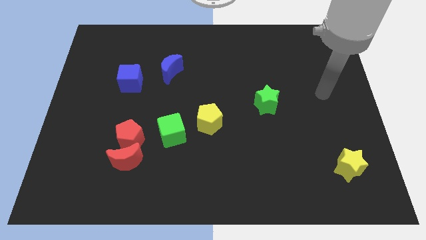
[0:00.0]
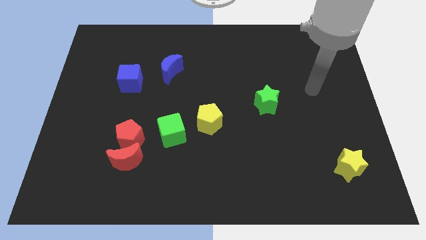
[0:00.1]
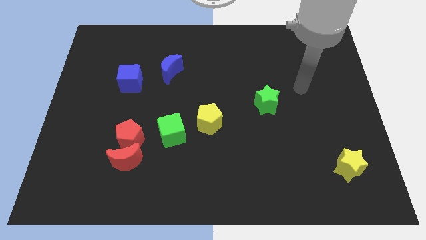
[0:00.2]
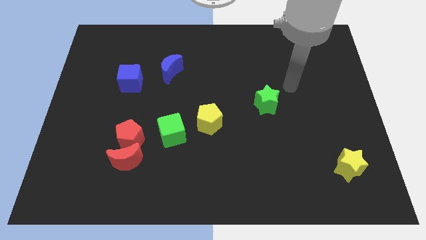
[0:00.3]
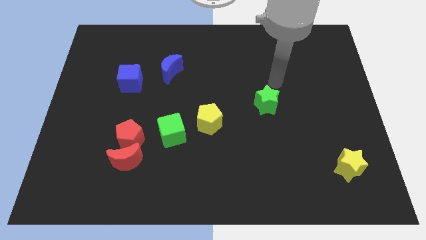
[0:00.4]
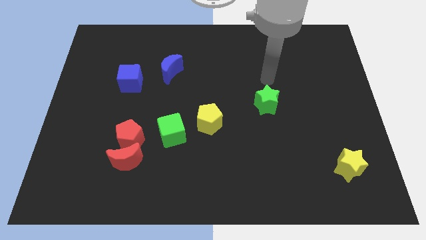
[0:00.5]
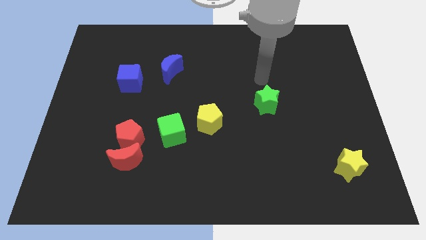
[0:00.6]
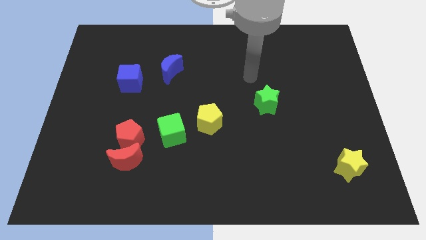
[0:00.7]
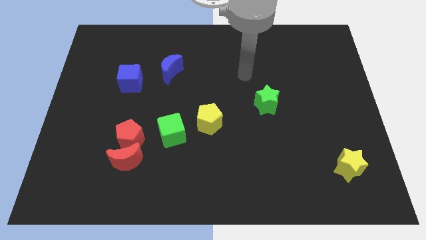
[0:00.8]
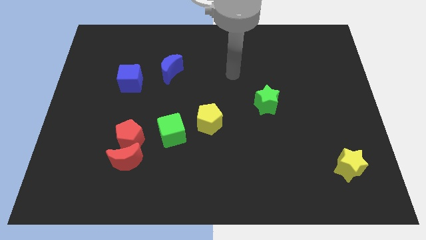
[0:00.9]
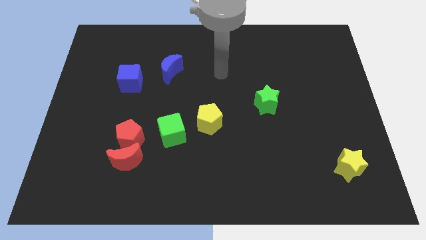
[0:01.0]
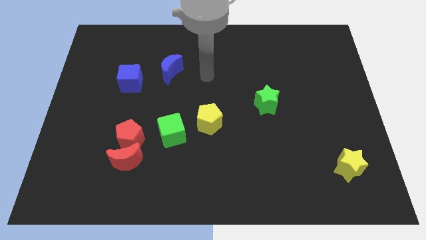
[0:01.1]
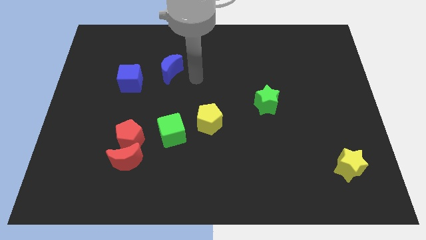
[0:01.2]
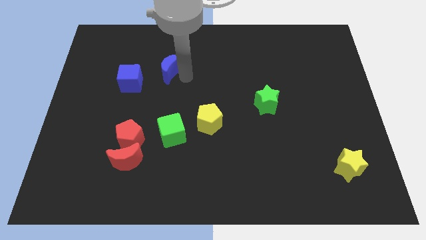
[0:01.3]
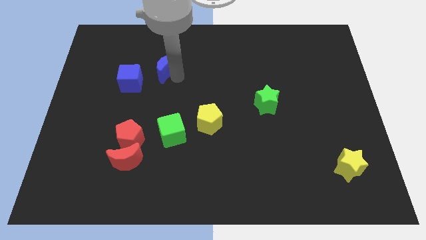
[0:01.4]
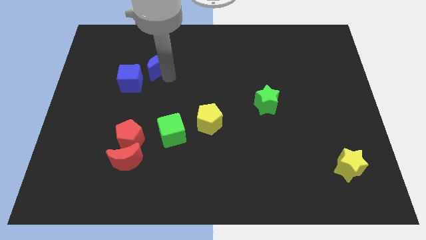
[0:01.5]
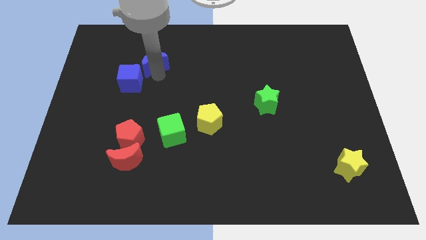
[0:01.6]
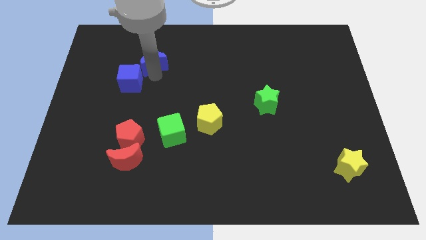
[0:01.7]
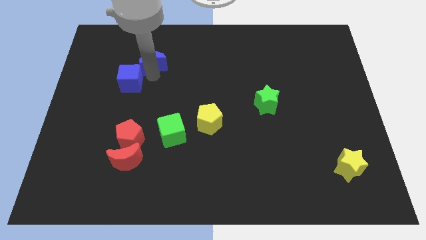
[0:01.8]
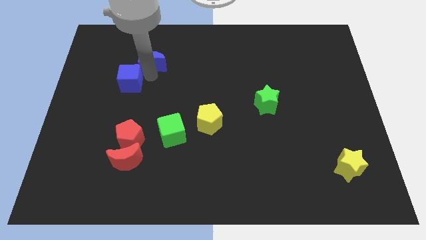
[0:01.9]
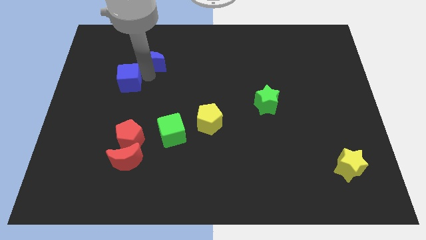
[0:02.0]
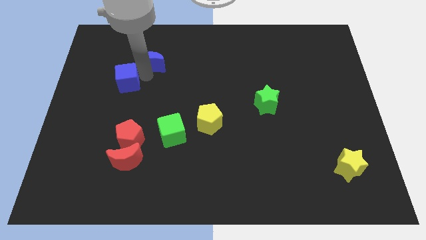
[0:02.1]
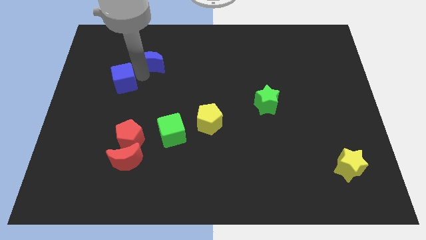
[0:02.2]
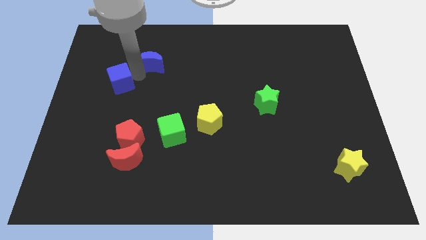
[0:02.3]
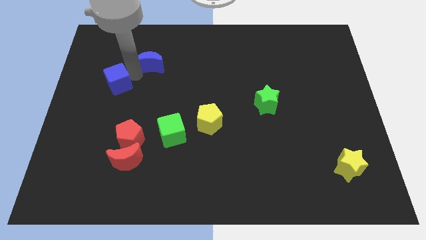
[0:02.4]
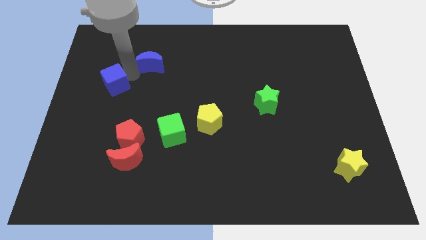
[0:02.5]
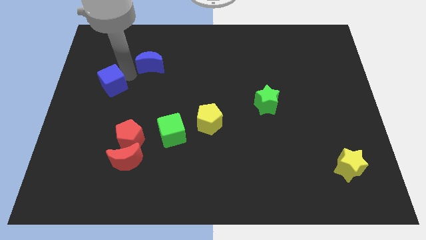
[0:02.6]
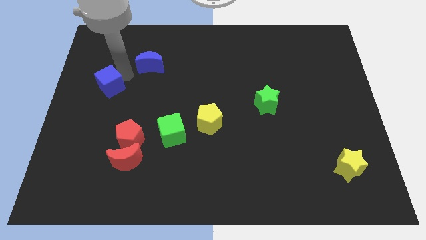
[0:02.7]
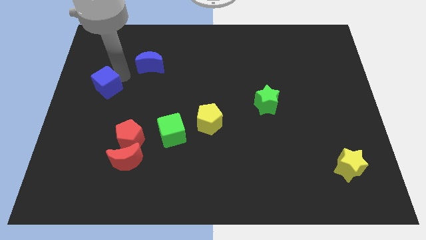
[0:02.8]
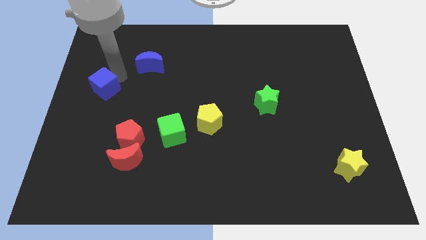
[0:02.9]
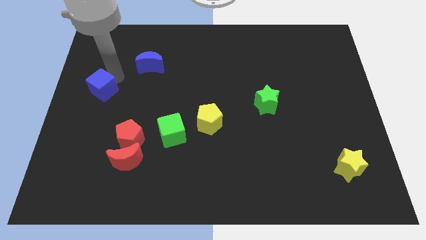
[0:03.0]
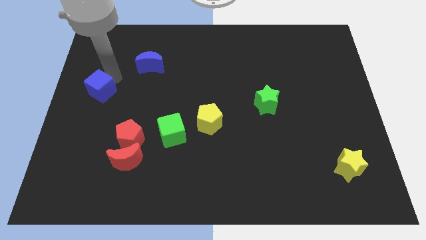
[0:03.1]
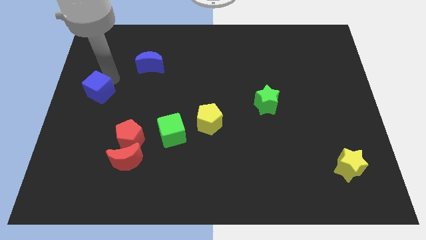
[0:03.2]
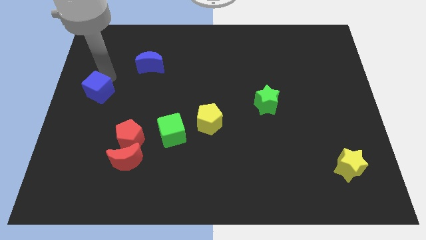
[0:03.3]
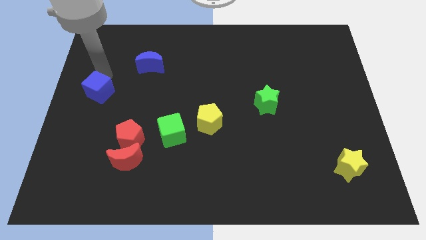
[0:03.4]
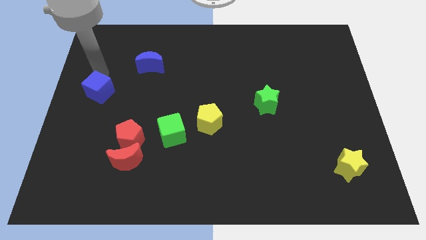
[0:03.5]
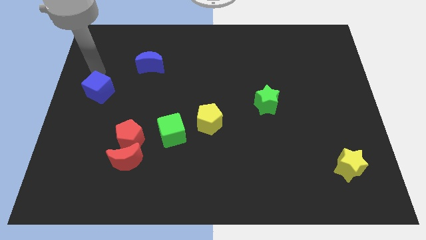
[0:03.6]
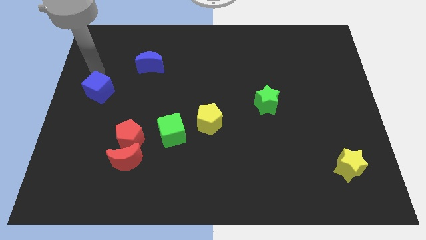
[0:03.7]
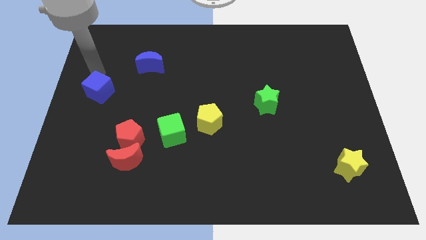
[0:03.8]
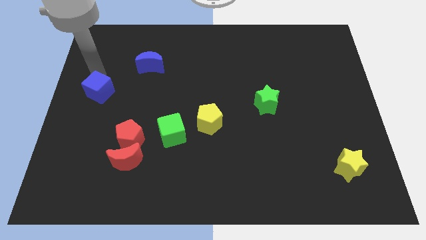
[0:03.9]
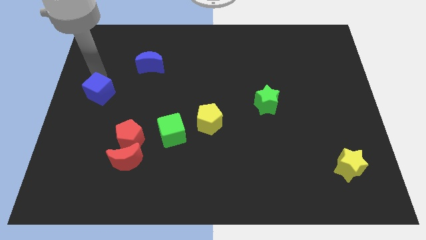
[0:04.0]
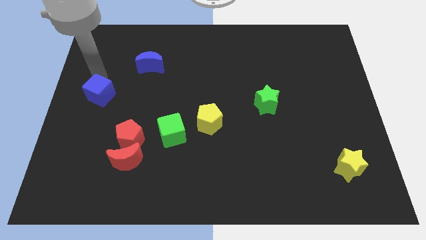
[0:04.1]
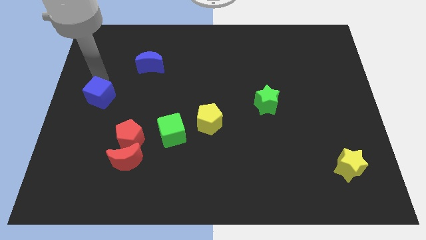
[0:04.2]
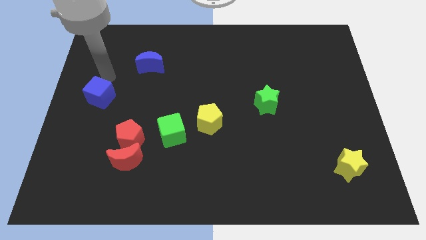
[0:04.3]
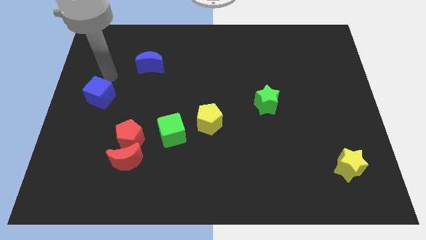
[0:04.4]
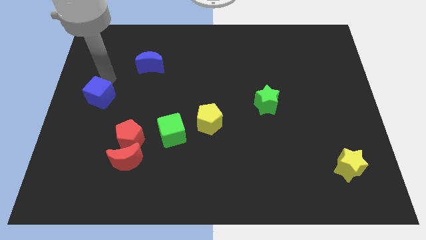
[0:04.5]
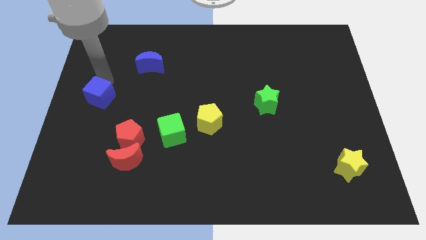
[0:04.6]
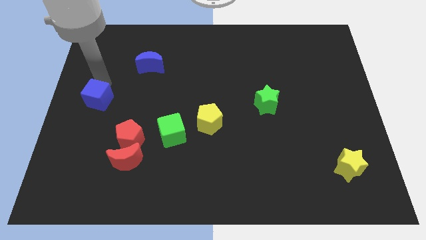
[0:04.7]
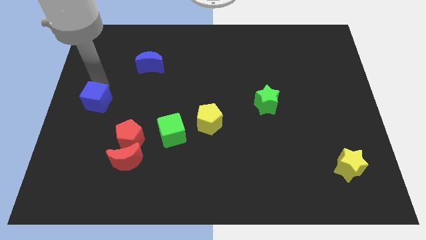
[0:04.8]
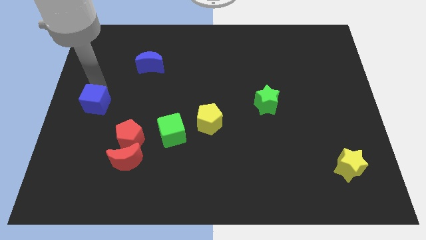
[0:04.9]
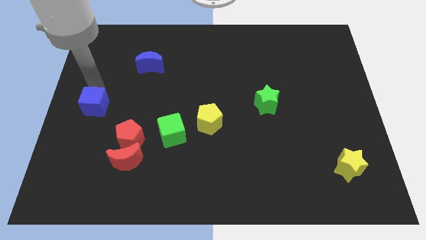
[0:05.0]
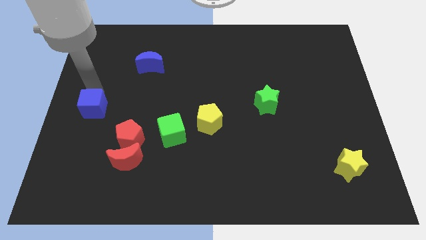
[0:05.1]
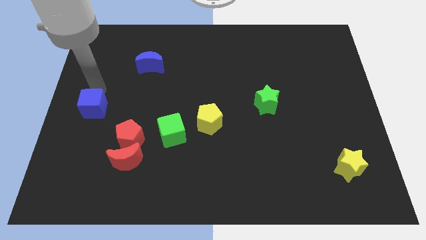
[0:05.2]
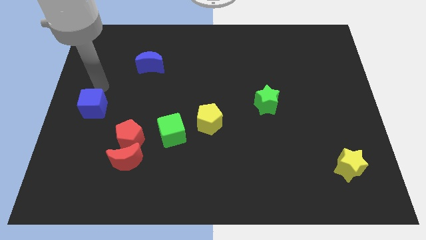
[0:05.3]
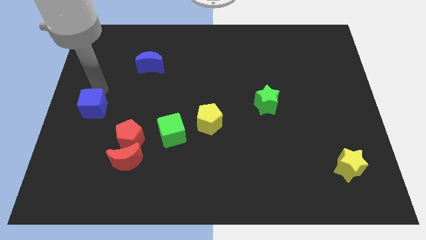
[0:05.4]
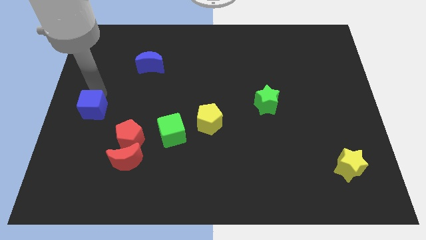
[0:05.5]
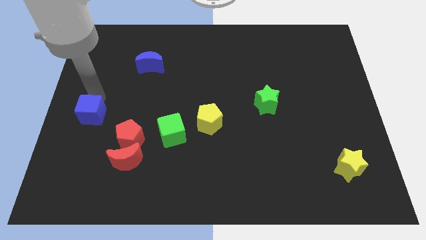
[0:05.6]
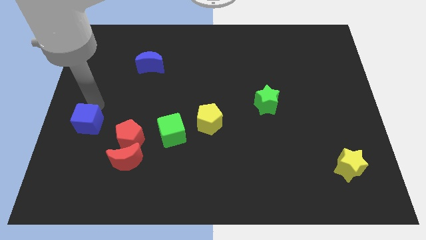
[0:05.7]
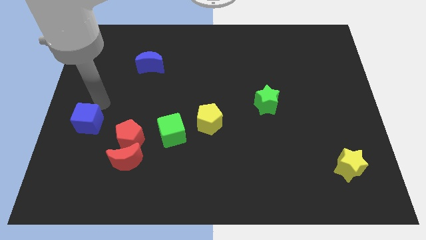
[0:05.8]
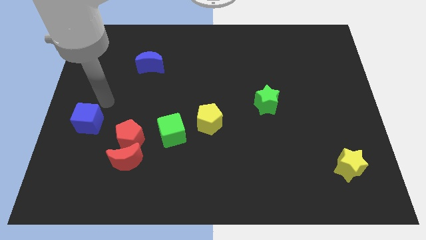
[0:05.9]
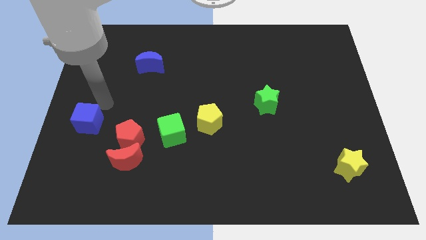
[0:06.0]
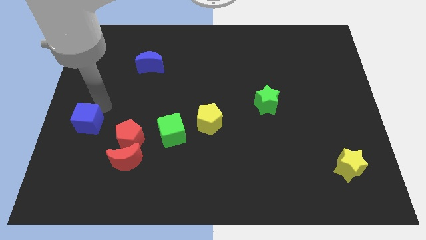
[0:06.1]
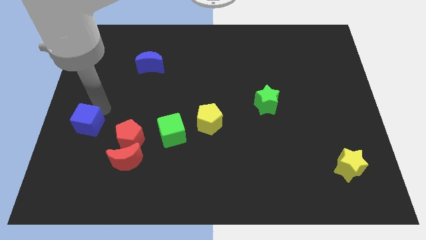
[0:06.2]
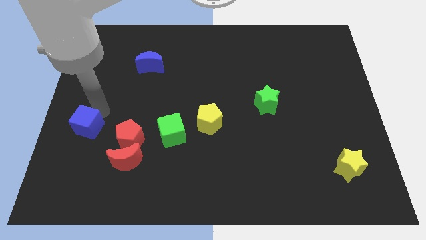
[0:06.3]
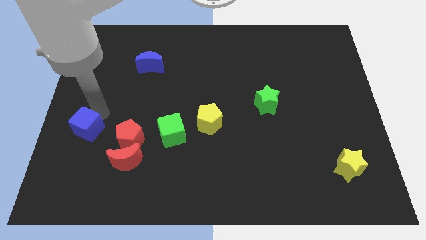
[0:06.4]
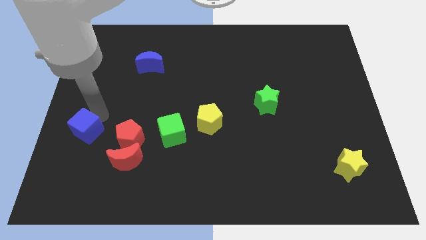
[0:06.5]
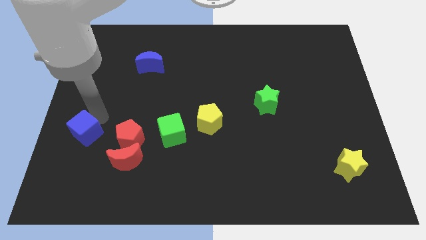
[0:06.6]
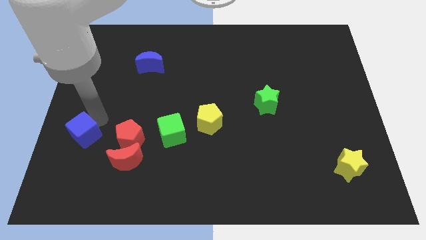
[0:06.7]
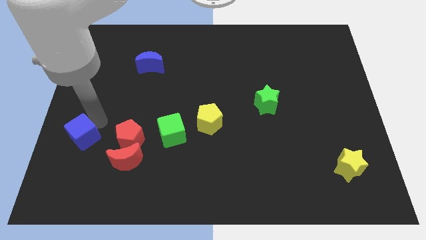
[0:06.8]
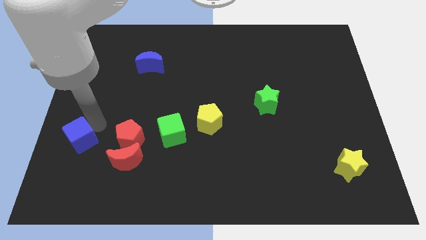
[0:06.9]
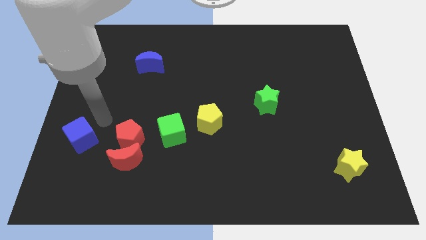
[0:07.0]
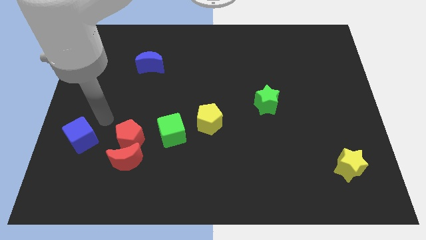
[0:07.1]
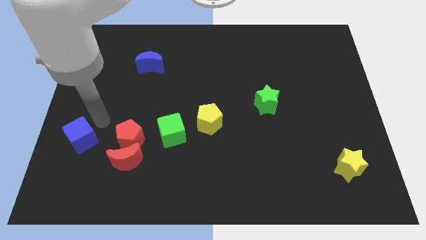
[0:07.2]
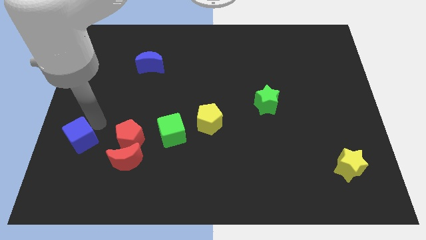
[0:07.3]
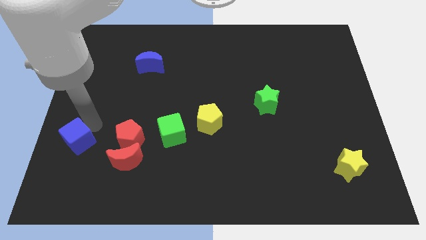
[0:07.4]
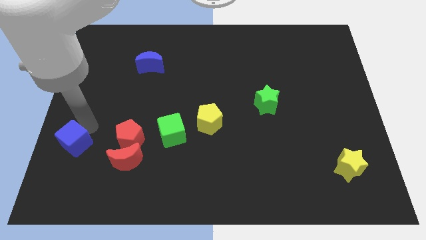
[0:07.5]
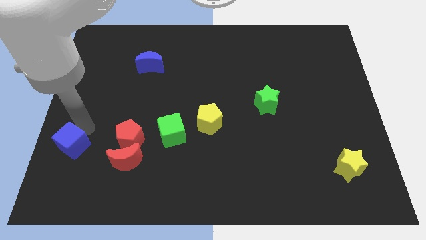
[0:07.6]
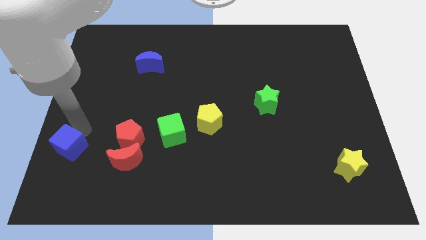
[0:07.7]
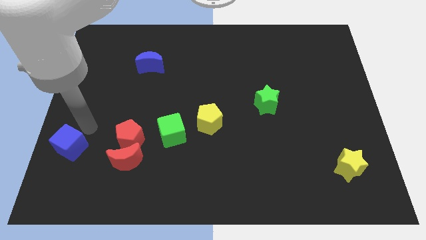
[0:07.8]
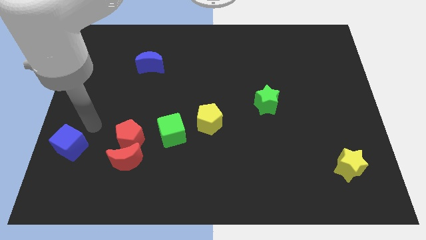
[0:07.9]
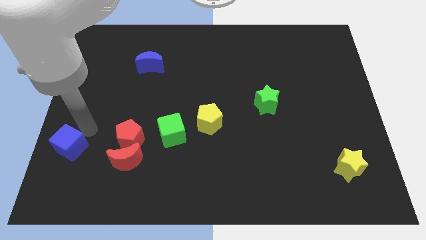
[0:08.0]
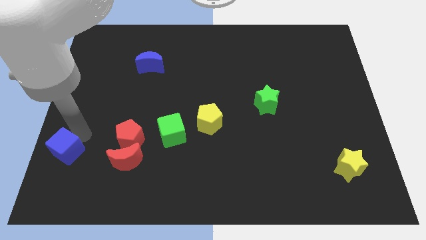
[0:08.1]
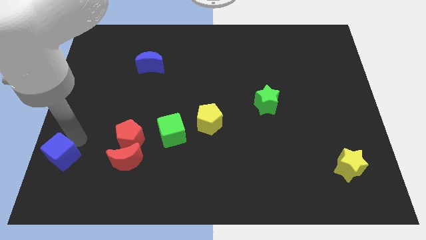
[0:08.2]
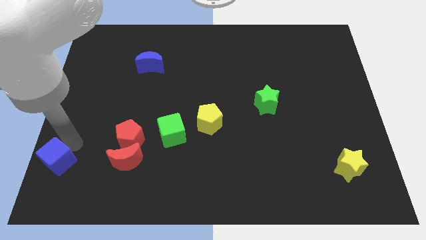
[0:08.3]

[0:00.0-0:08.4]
move the blue cube to the bottom left of the board
